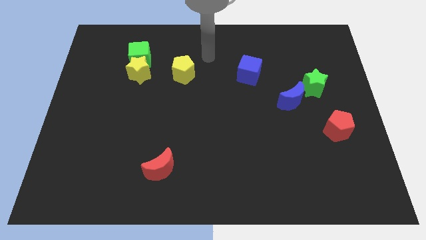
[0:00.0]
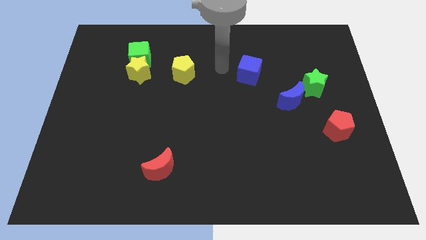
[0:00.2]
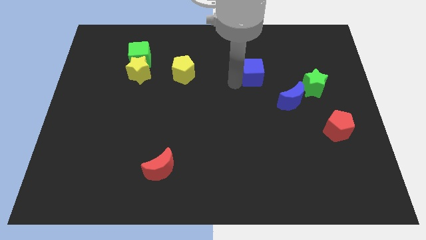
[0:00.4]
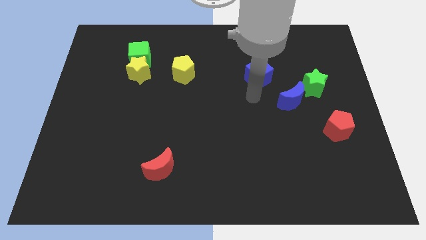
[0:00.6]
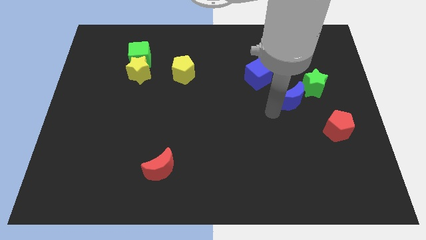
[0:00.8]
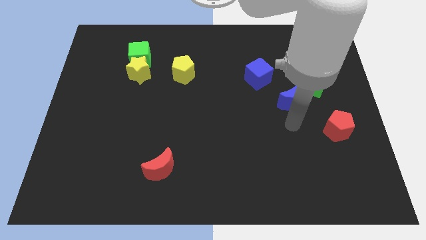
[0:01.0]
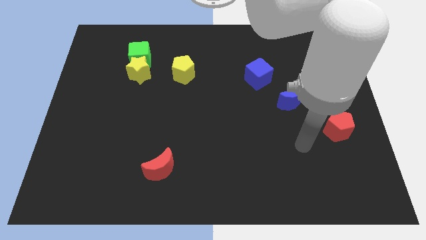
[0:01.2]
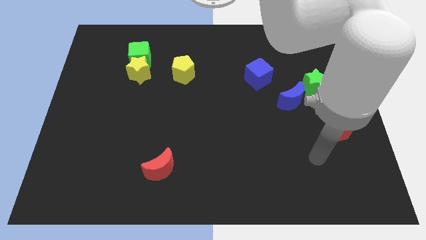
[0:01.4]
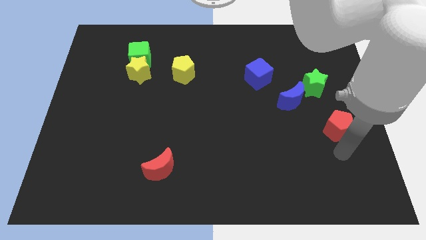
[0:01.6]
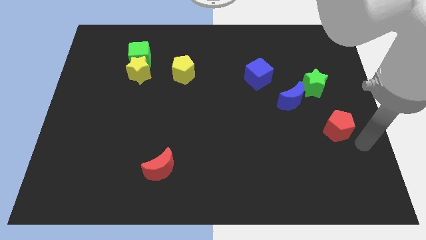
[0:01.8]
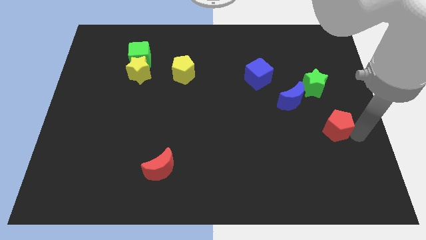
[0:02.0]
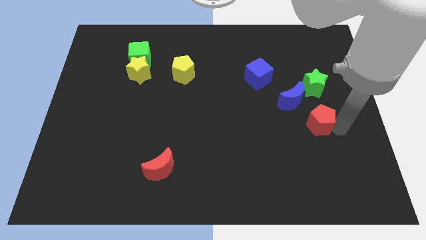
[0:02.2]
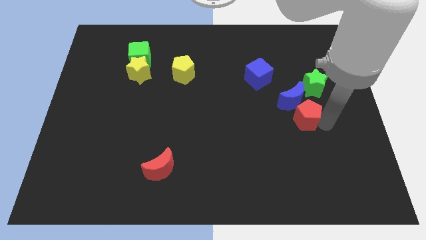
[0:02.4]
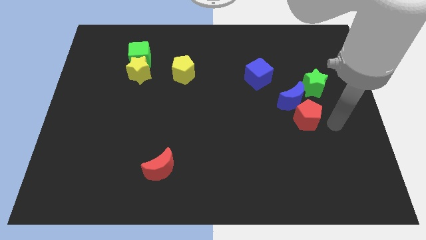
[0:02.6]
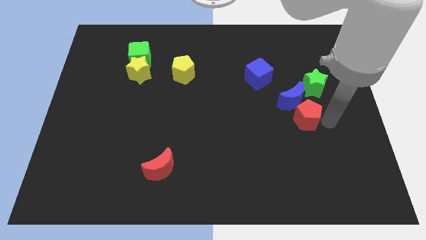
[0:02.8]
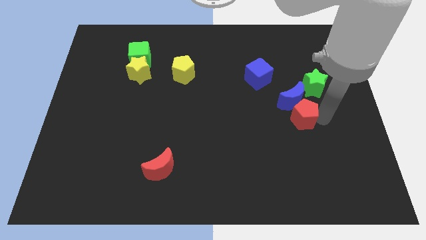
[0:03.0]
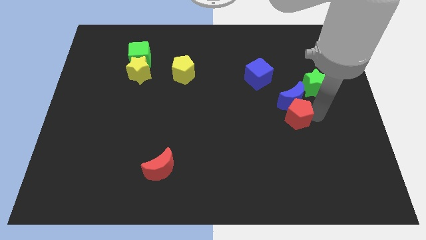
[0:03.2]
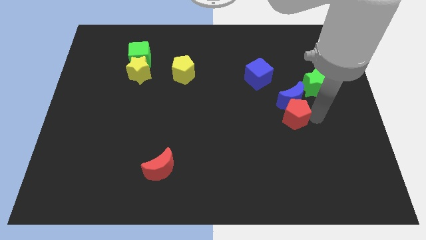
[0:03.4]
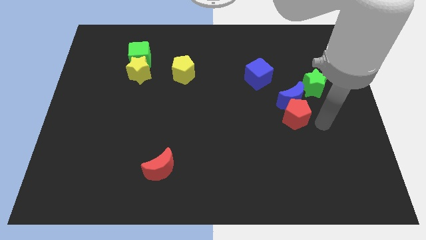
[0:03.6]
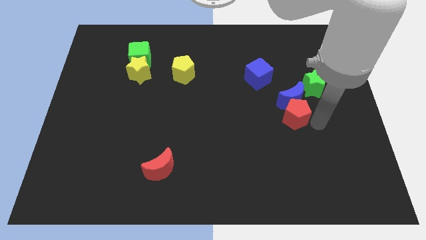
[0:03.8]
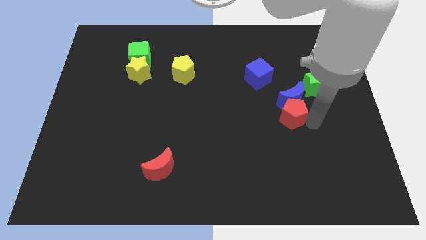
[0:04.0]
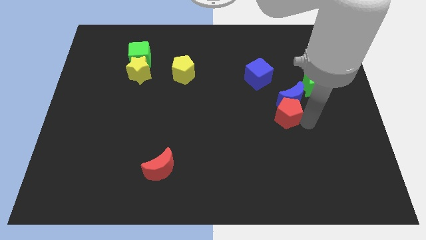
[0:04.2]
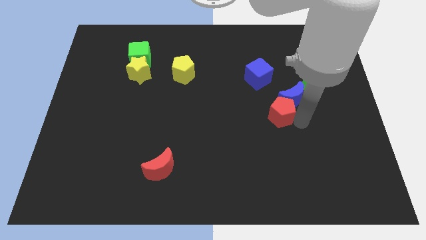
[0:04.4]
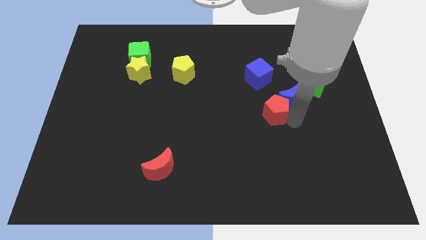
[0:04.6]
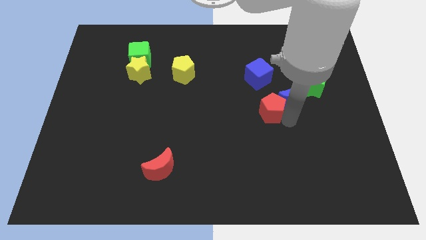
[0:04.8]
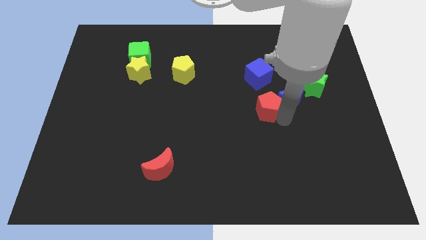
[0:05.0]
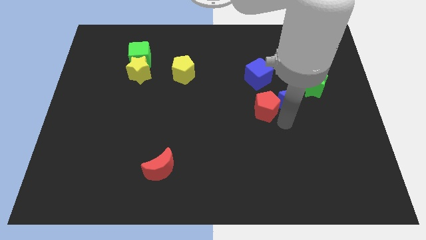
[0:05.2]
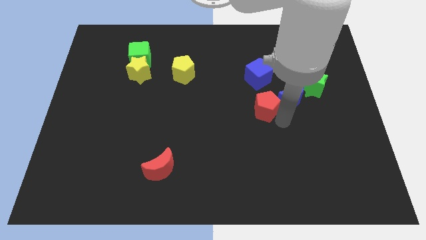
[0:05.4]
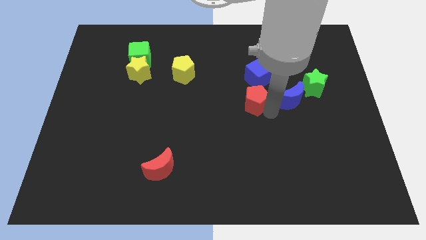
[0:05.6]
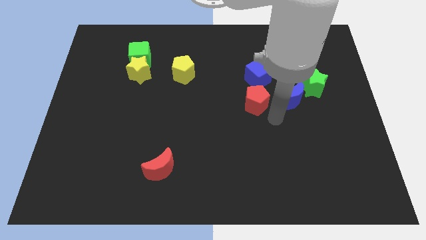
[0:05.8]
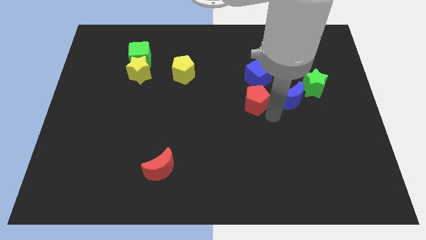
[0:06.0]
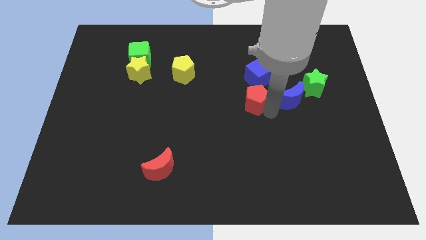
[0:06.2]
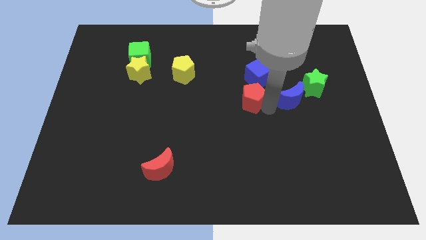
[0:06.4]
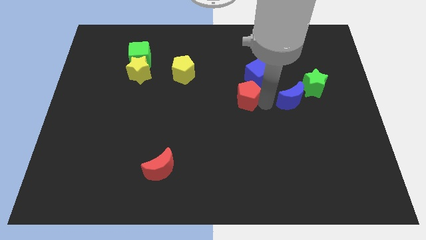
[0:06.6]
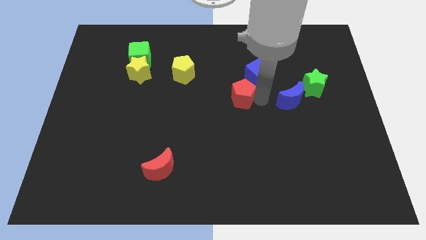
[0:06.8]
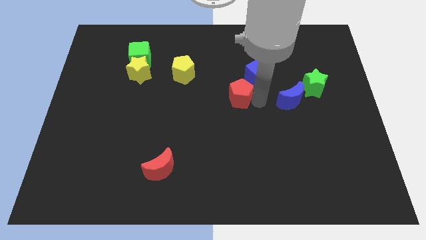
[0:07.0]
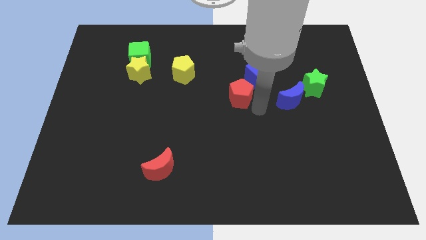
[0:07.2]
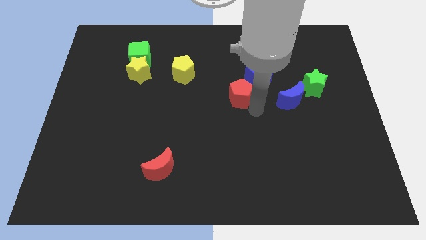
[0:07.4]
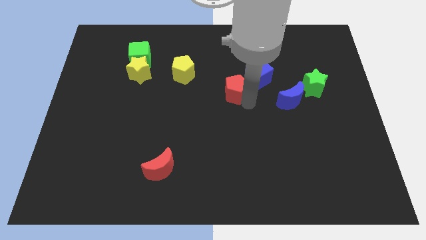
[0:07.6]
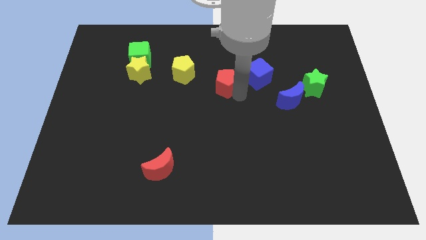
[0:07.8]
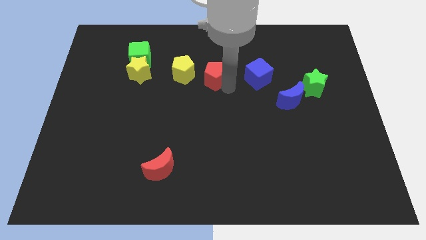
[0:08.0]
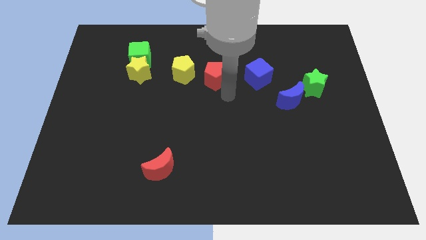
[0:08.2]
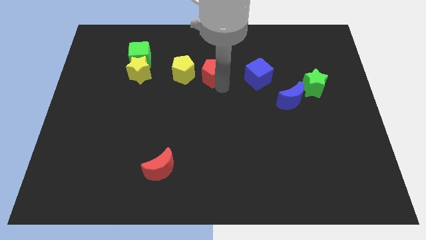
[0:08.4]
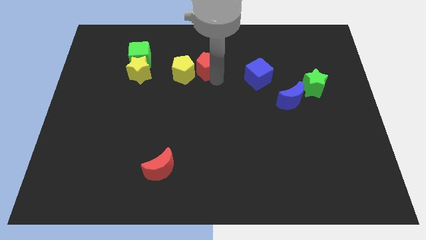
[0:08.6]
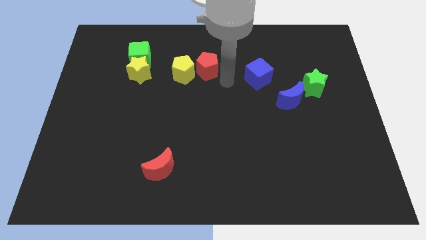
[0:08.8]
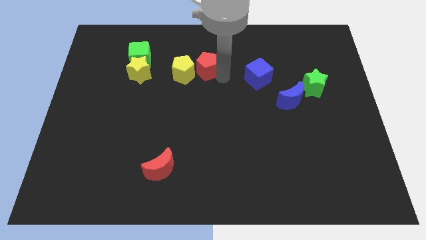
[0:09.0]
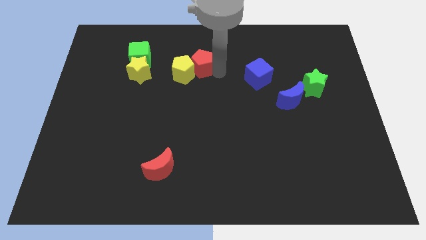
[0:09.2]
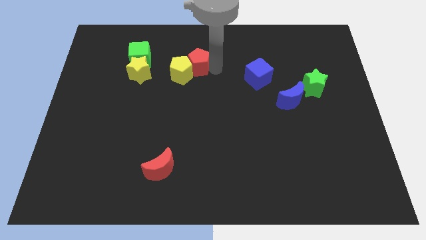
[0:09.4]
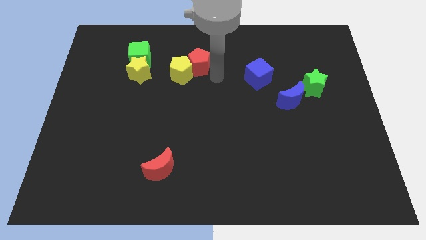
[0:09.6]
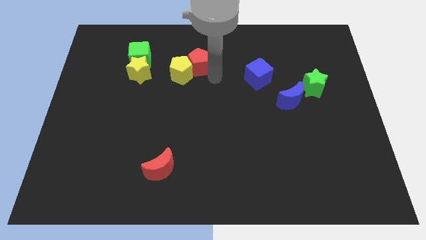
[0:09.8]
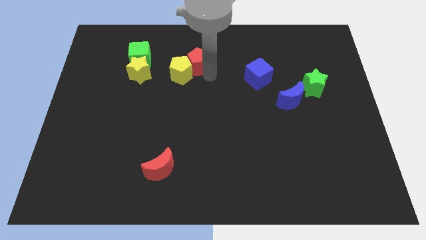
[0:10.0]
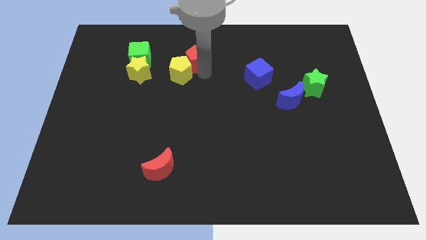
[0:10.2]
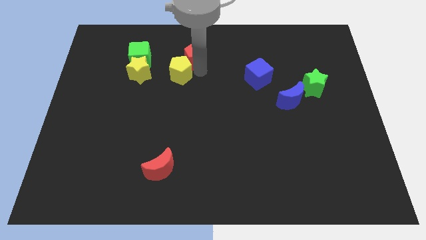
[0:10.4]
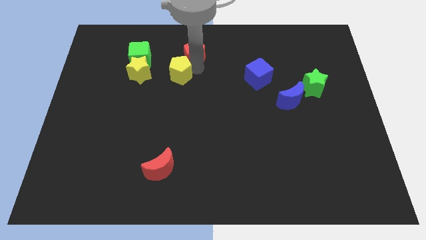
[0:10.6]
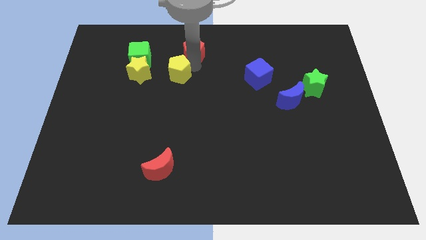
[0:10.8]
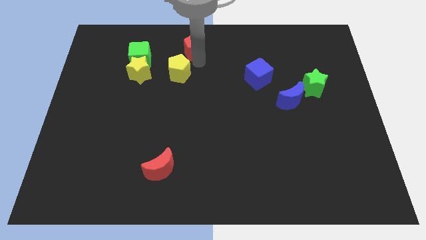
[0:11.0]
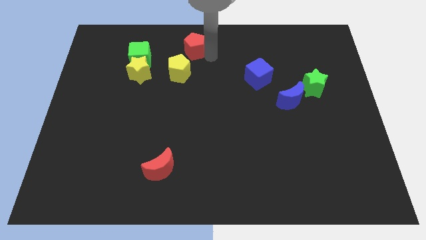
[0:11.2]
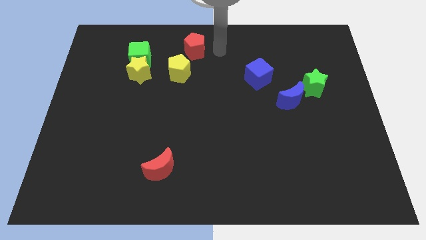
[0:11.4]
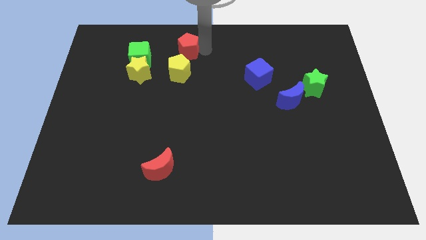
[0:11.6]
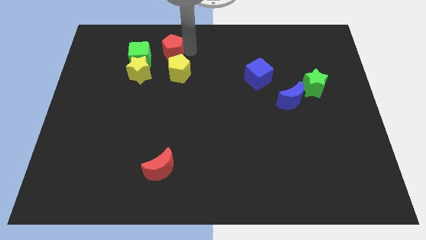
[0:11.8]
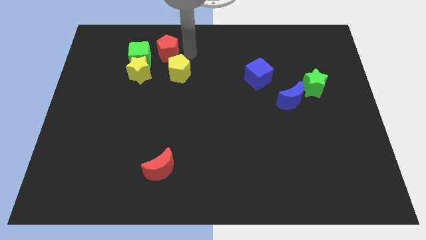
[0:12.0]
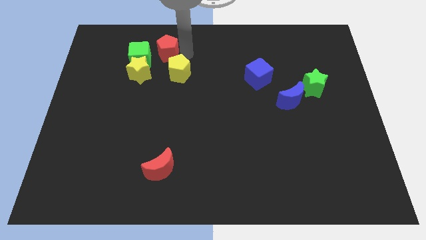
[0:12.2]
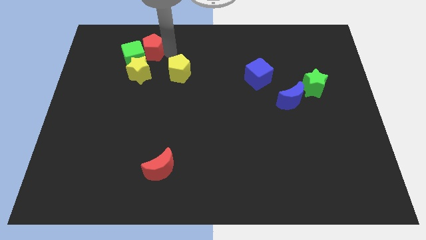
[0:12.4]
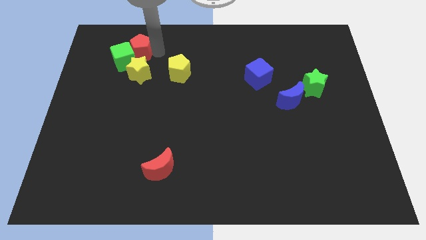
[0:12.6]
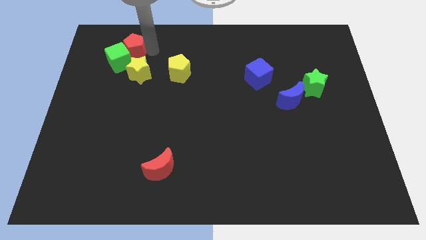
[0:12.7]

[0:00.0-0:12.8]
put the red pentagon diagonally up and to the left of the yellow star
